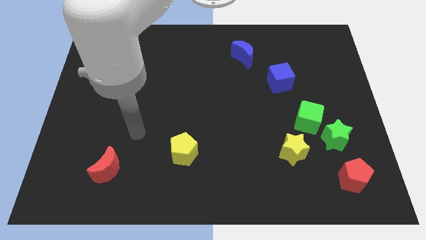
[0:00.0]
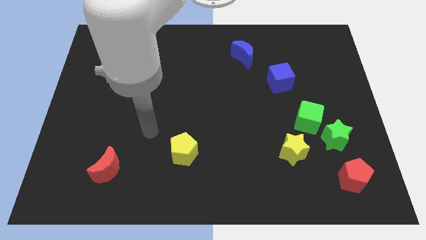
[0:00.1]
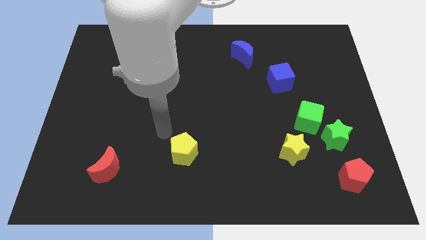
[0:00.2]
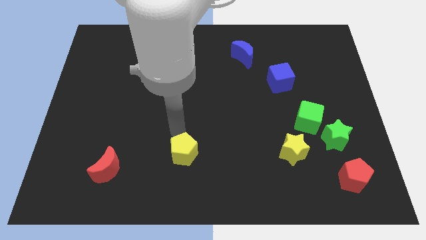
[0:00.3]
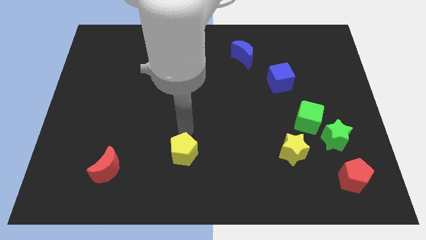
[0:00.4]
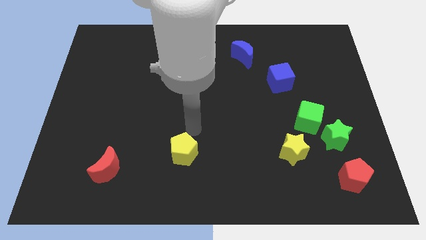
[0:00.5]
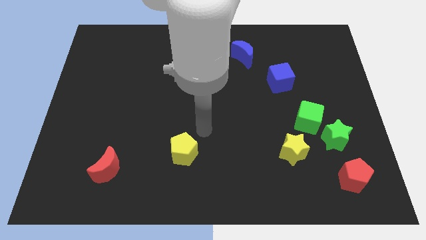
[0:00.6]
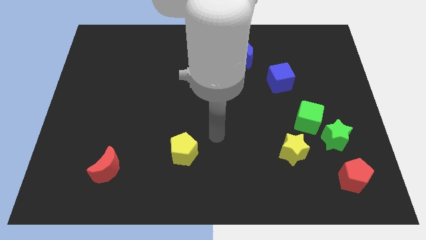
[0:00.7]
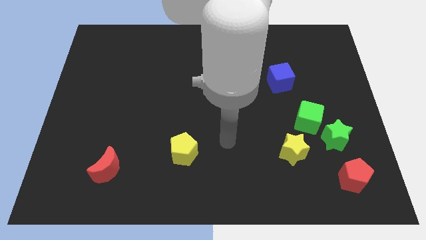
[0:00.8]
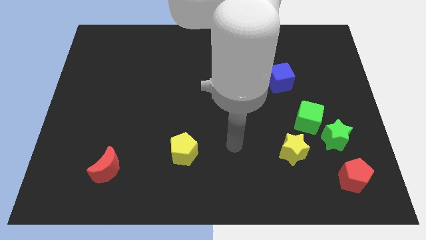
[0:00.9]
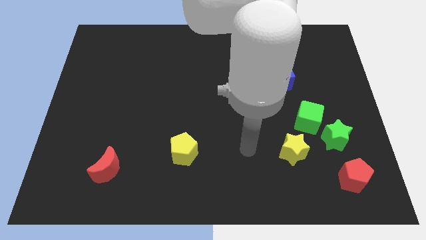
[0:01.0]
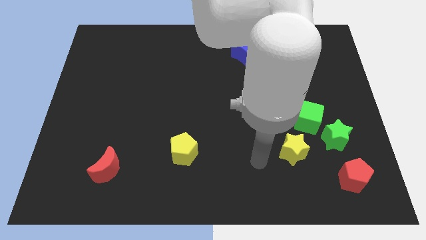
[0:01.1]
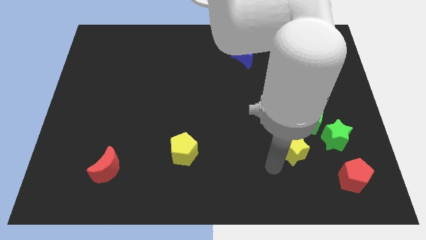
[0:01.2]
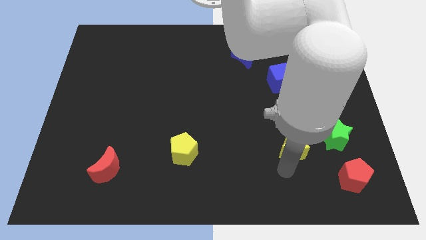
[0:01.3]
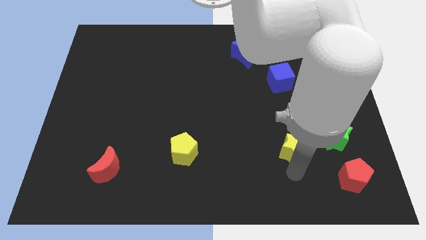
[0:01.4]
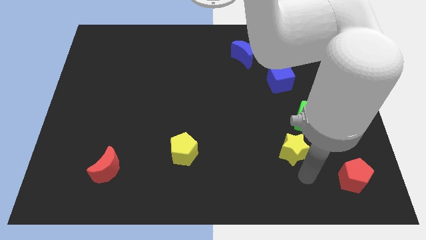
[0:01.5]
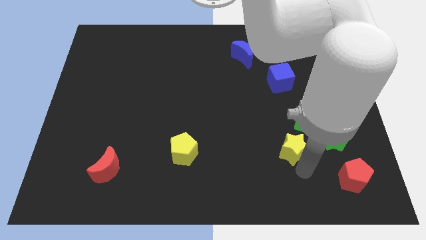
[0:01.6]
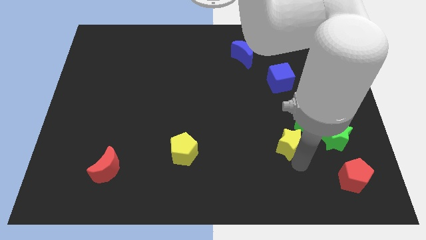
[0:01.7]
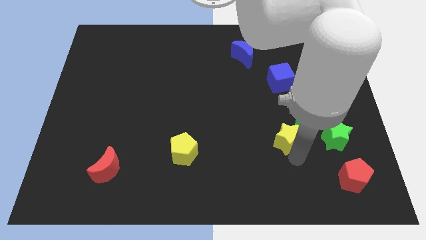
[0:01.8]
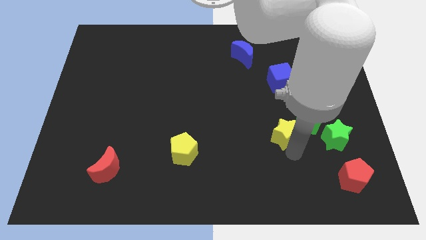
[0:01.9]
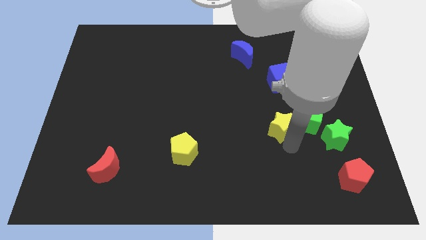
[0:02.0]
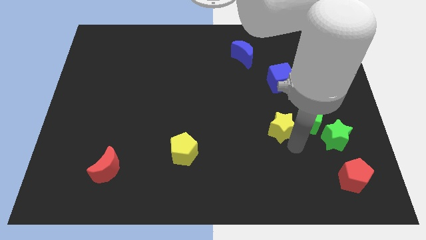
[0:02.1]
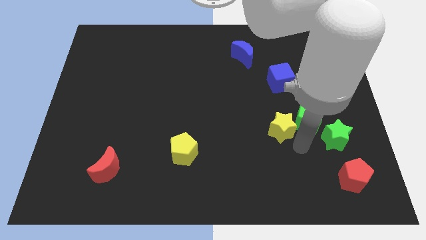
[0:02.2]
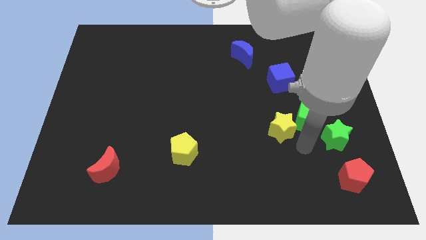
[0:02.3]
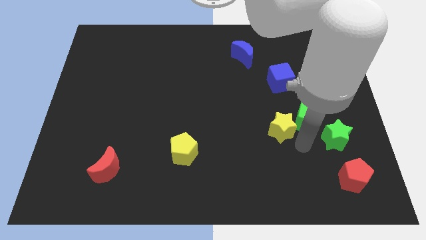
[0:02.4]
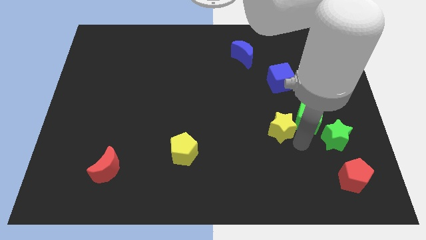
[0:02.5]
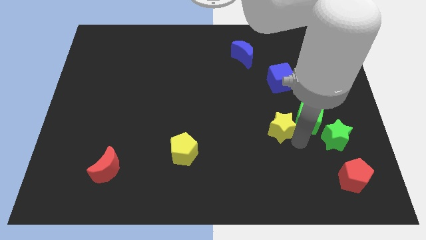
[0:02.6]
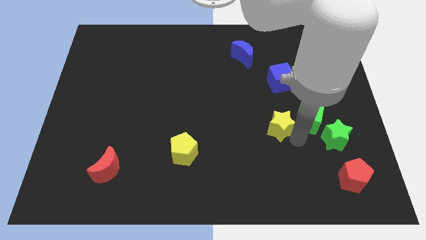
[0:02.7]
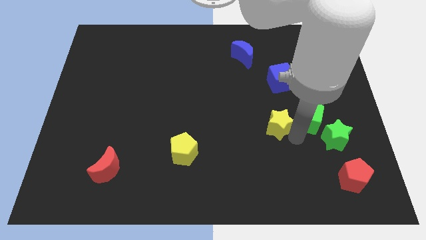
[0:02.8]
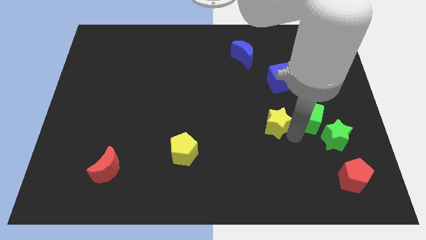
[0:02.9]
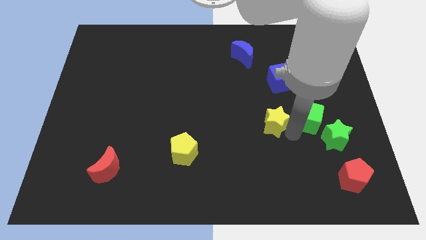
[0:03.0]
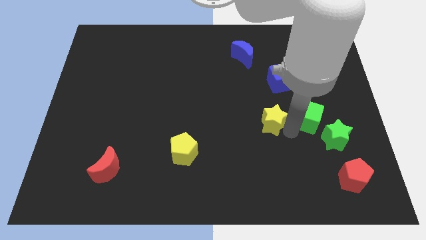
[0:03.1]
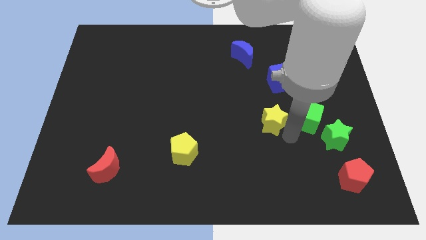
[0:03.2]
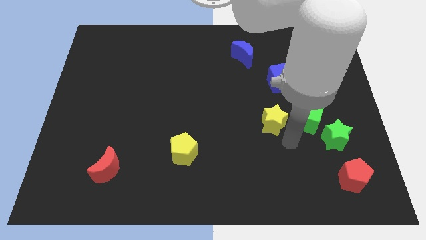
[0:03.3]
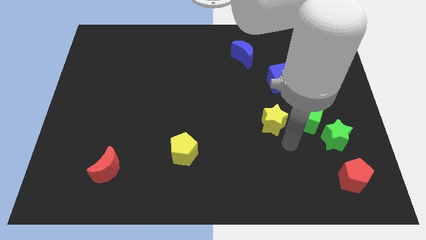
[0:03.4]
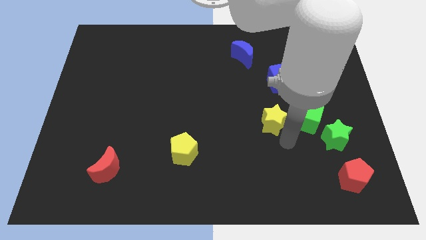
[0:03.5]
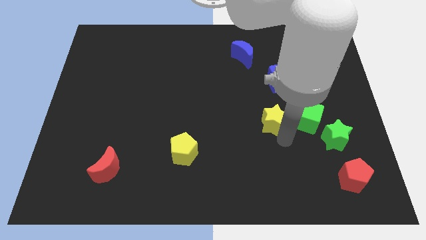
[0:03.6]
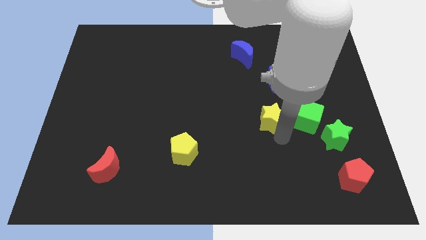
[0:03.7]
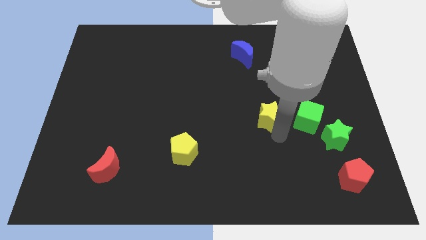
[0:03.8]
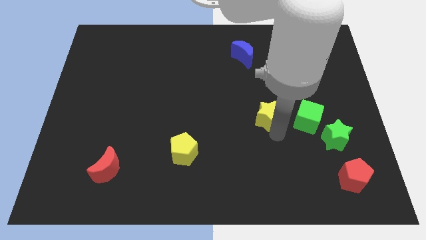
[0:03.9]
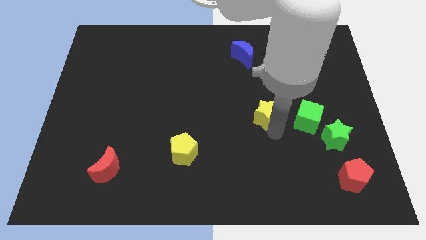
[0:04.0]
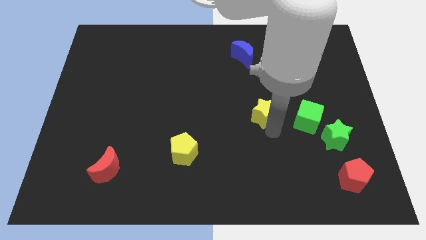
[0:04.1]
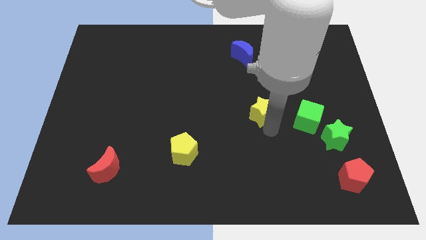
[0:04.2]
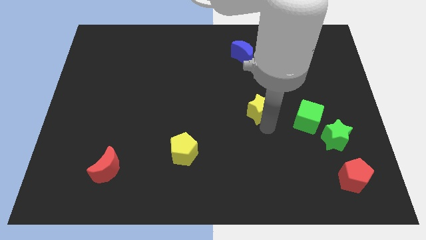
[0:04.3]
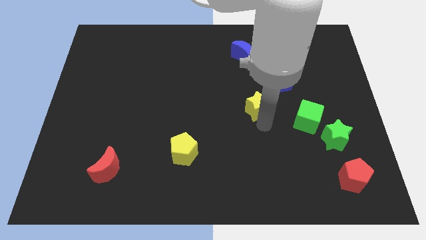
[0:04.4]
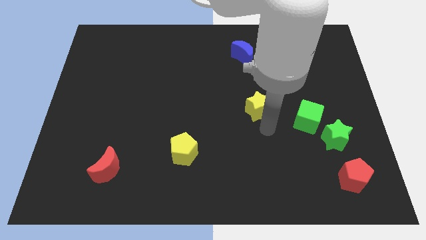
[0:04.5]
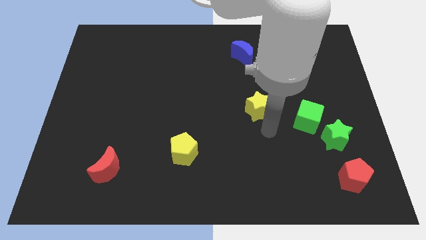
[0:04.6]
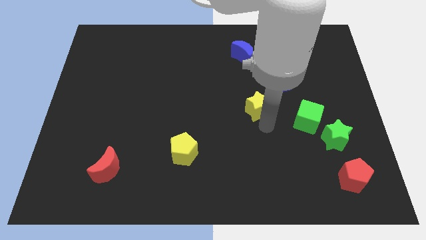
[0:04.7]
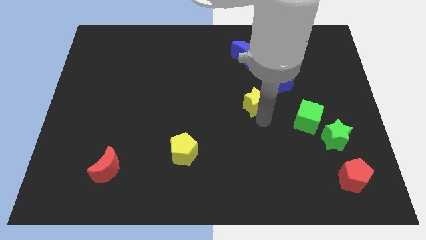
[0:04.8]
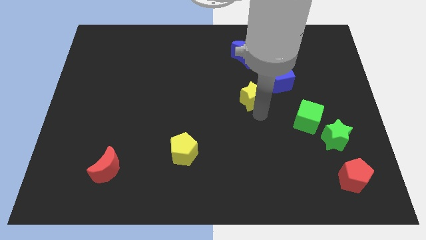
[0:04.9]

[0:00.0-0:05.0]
push the yellow star to the bottom of the blue moon

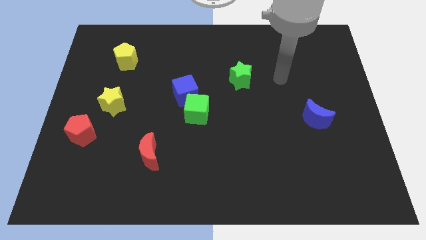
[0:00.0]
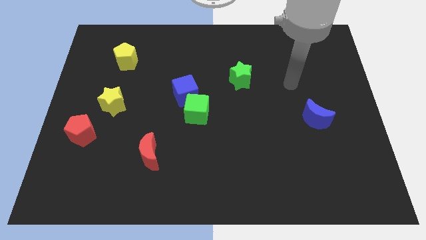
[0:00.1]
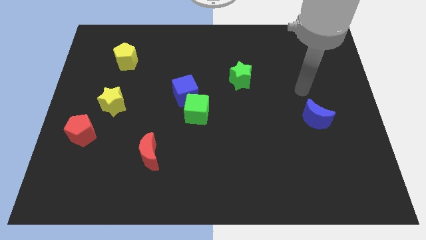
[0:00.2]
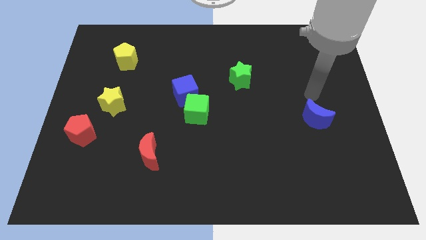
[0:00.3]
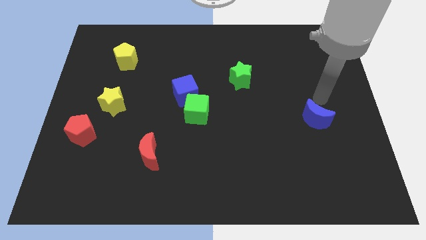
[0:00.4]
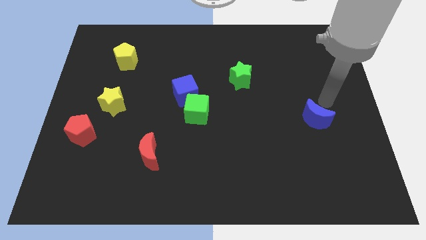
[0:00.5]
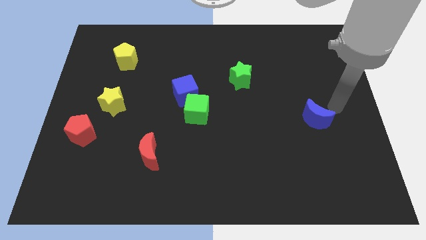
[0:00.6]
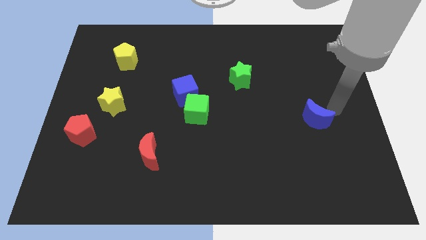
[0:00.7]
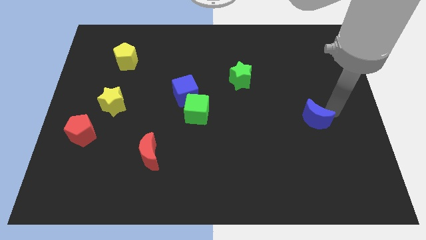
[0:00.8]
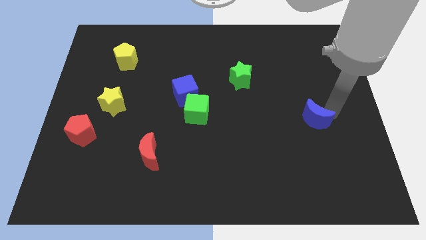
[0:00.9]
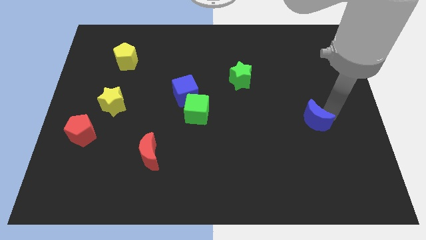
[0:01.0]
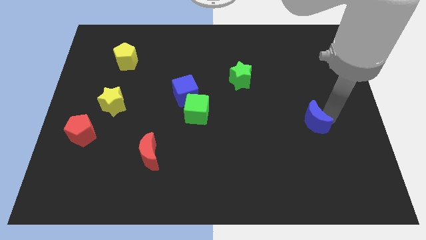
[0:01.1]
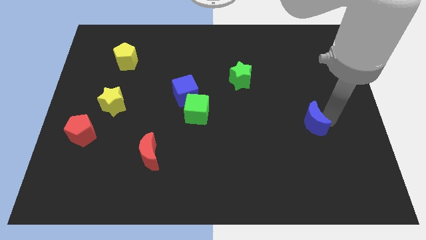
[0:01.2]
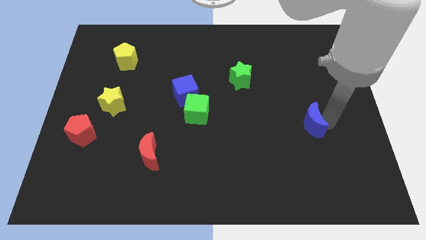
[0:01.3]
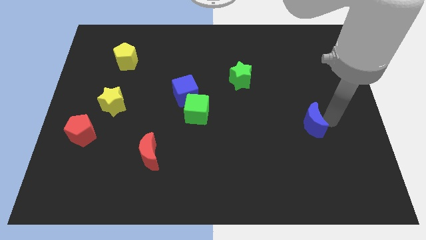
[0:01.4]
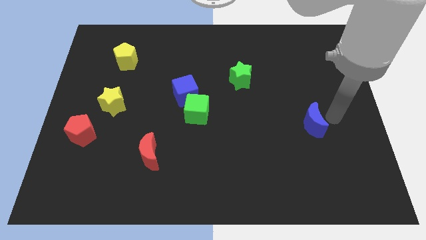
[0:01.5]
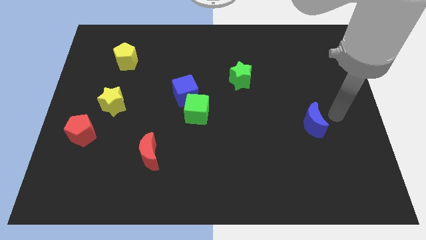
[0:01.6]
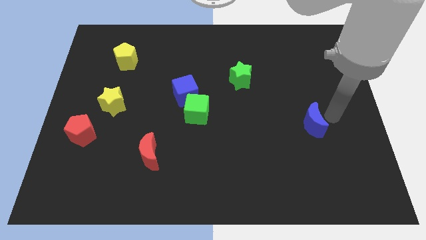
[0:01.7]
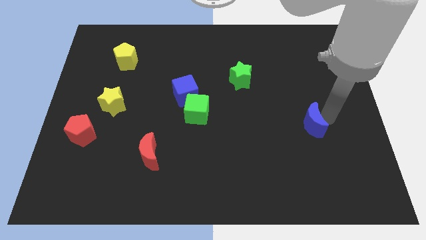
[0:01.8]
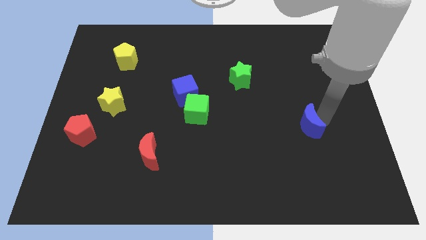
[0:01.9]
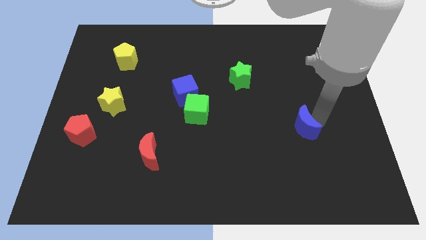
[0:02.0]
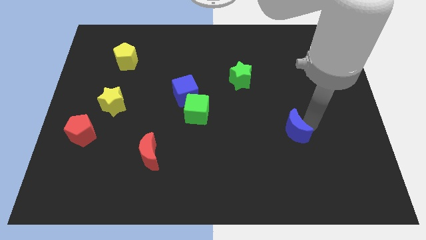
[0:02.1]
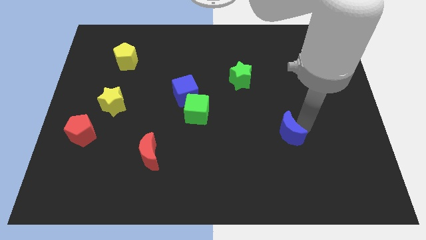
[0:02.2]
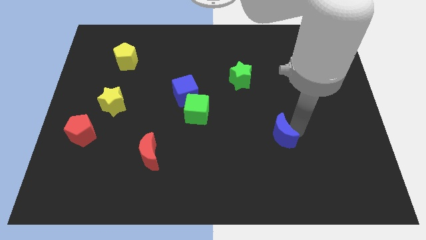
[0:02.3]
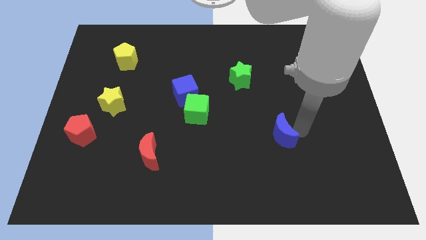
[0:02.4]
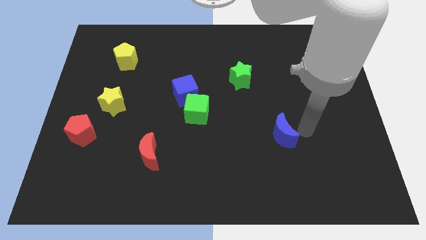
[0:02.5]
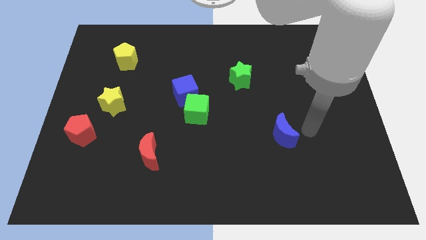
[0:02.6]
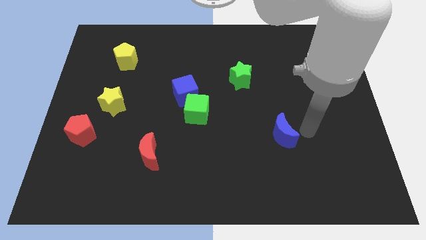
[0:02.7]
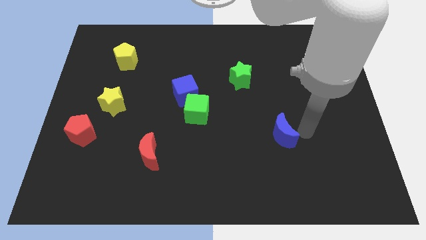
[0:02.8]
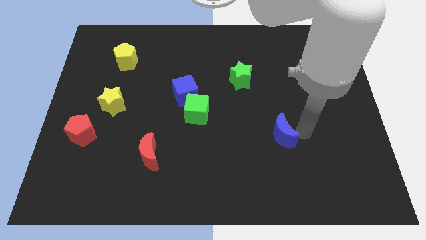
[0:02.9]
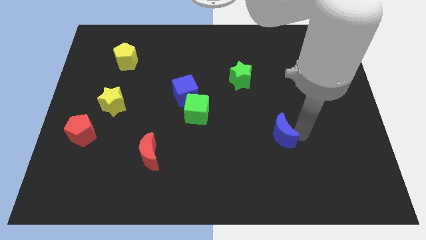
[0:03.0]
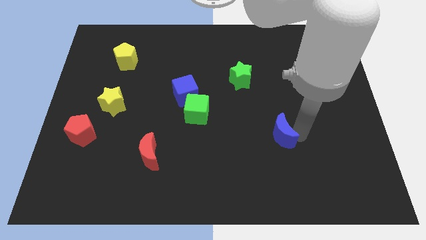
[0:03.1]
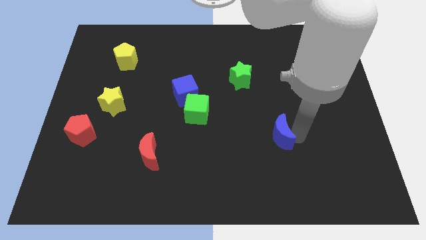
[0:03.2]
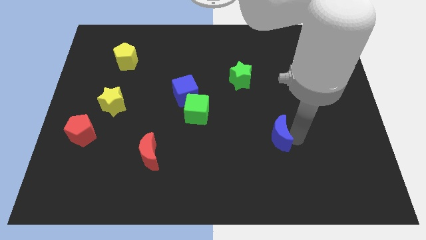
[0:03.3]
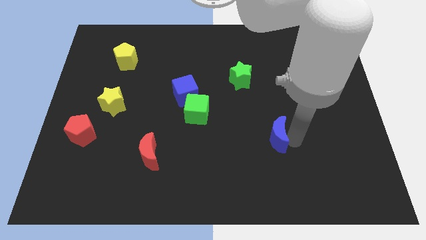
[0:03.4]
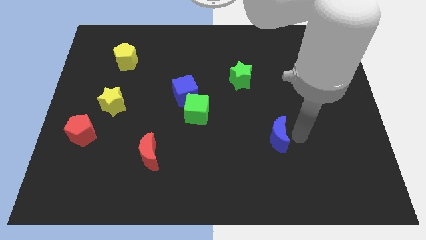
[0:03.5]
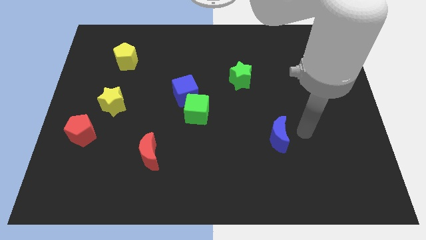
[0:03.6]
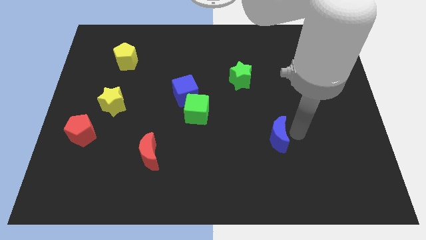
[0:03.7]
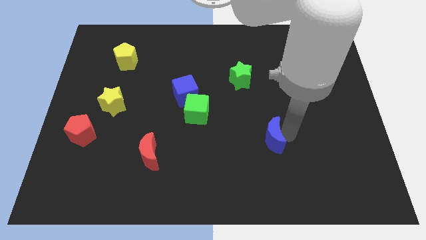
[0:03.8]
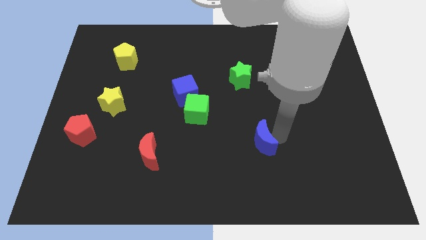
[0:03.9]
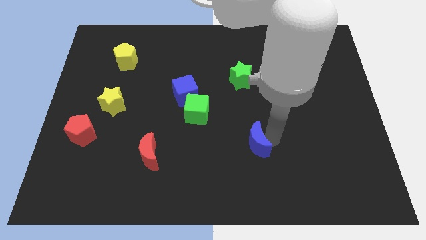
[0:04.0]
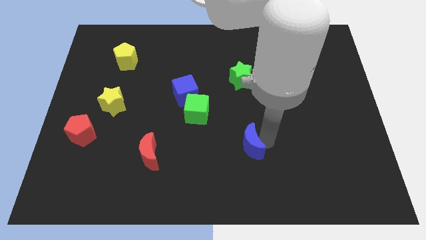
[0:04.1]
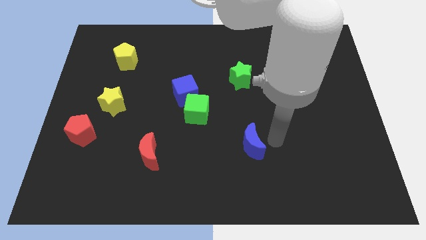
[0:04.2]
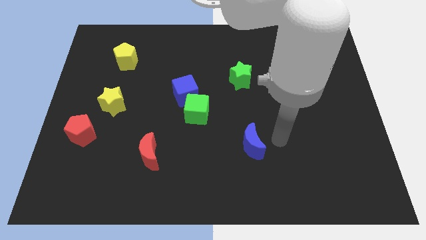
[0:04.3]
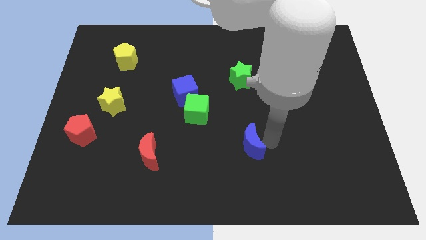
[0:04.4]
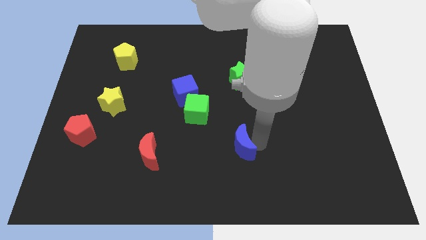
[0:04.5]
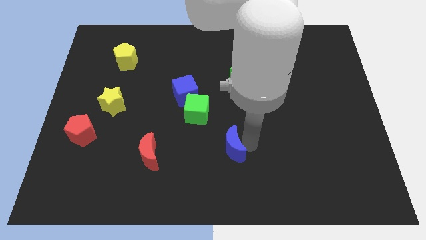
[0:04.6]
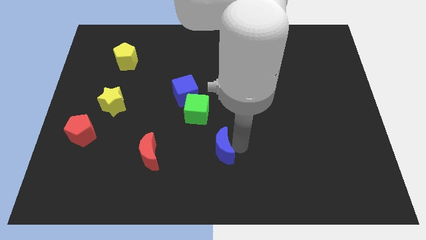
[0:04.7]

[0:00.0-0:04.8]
slide the blue moon right of the red moon
